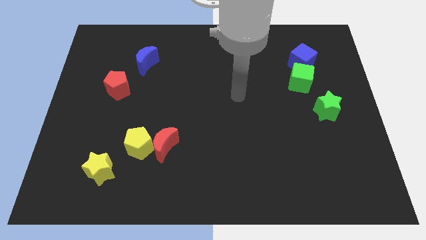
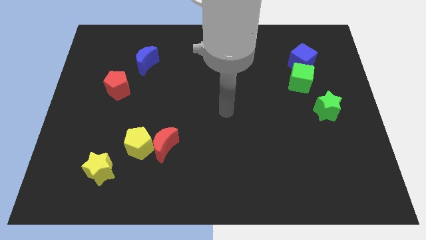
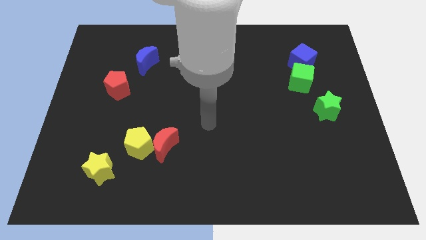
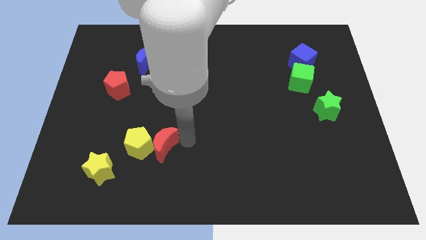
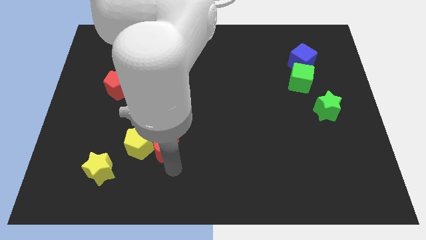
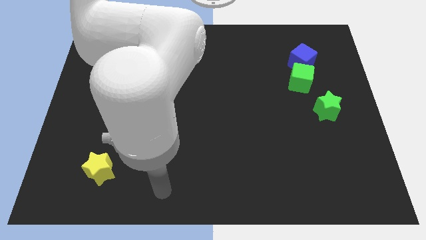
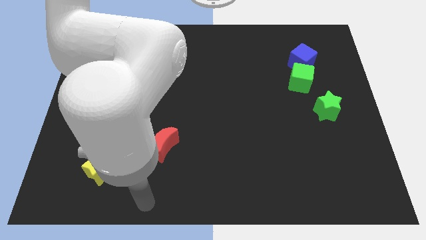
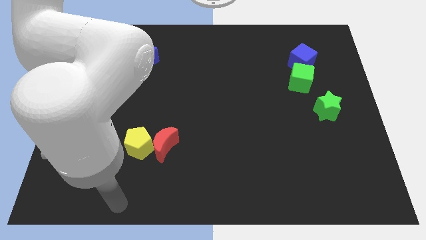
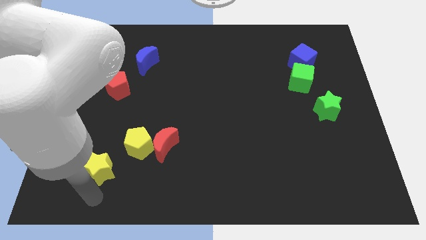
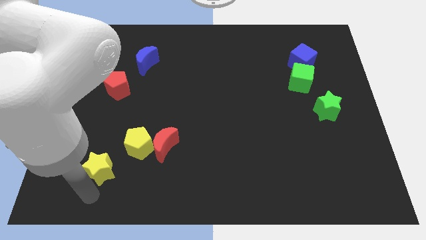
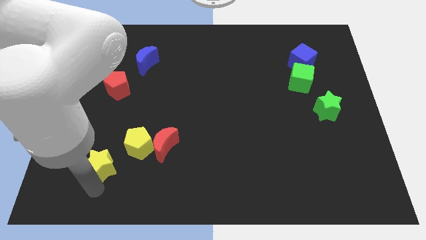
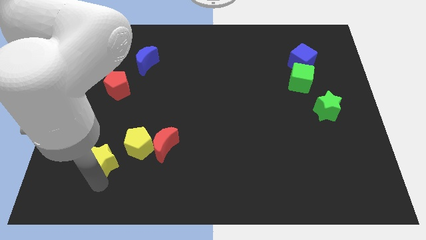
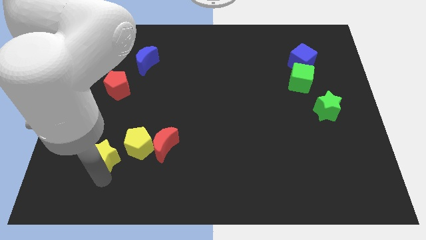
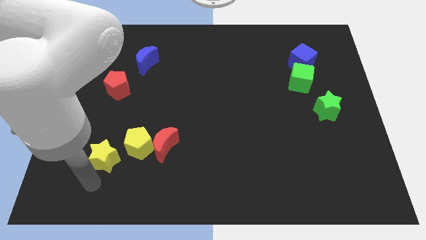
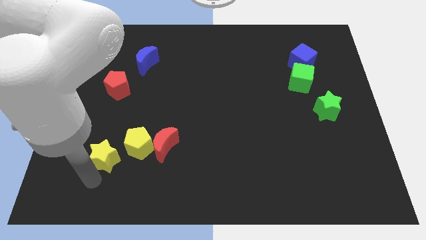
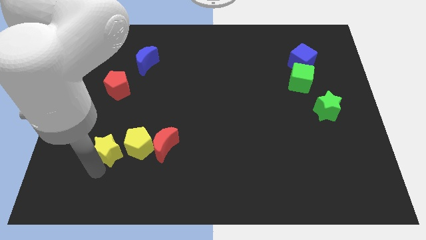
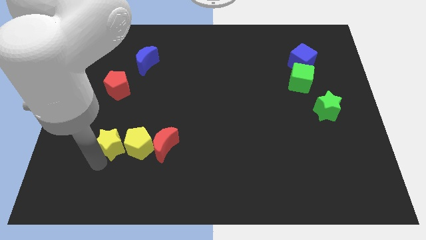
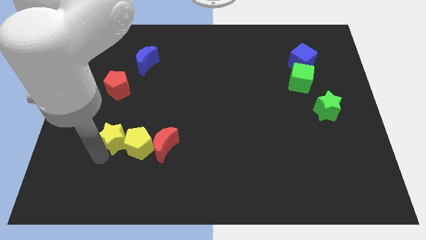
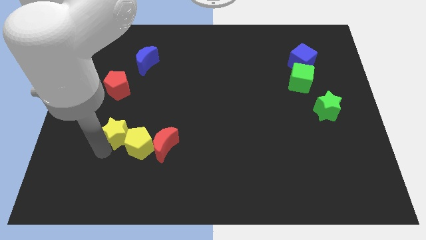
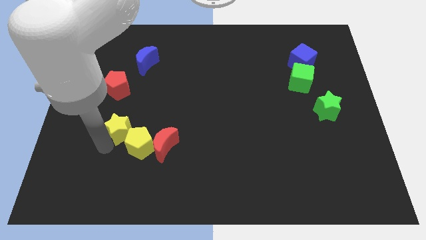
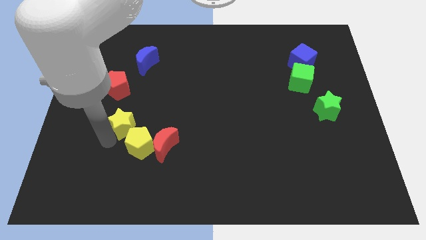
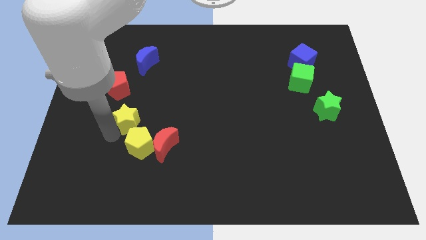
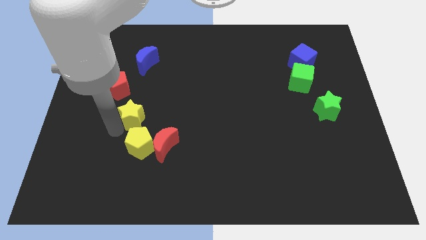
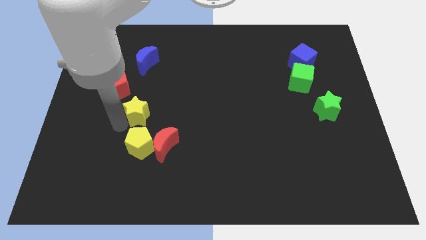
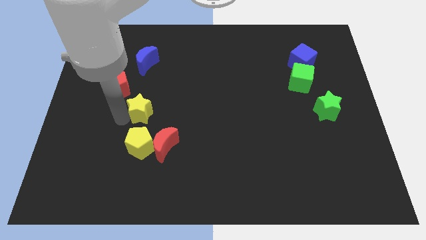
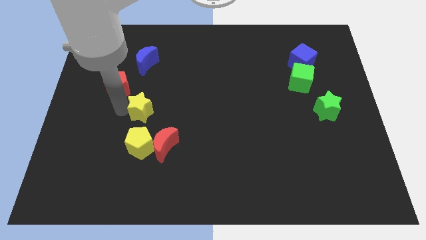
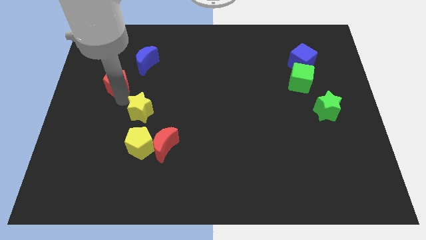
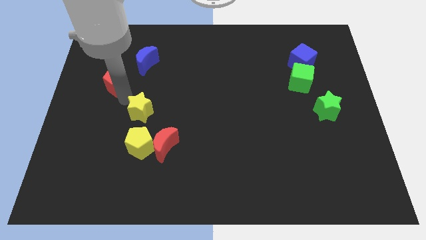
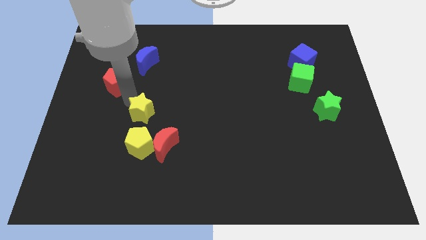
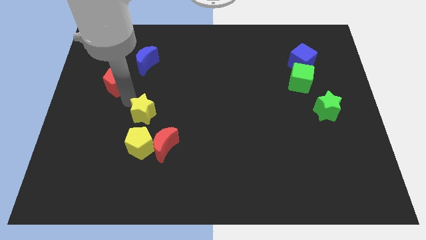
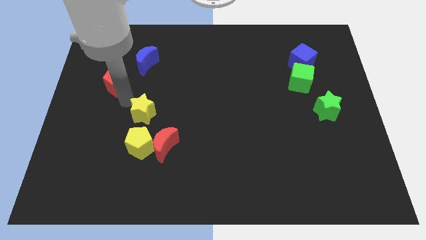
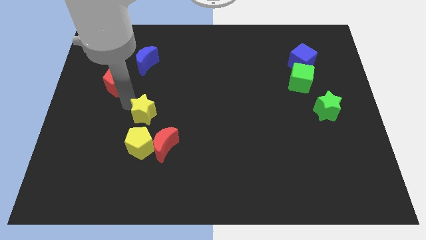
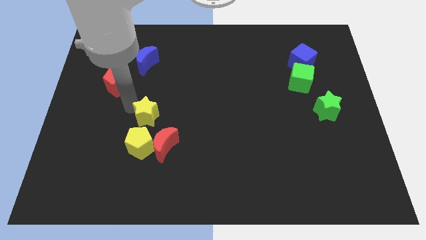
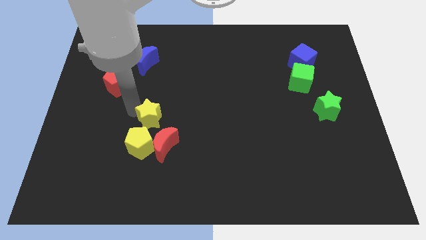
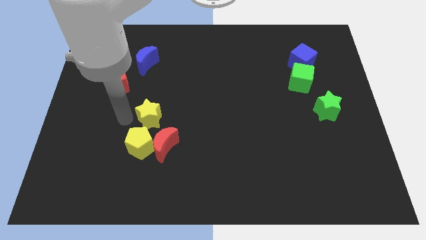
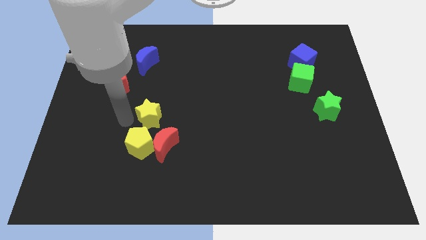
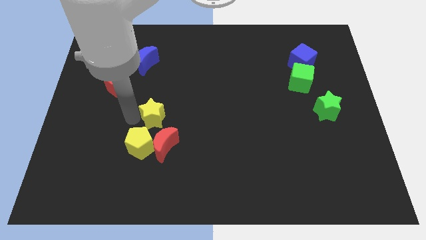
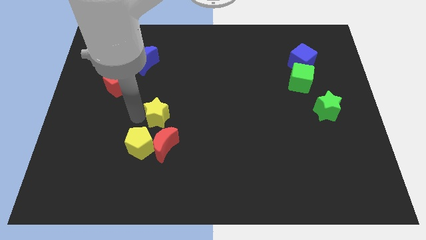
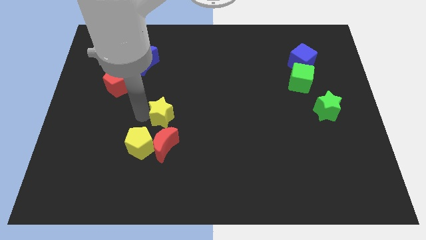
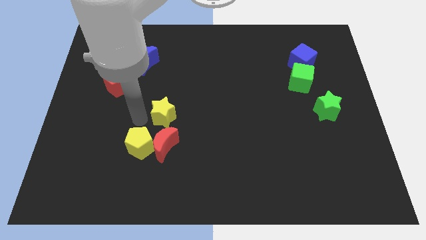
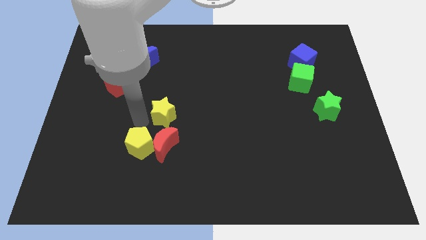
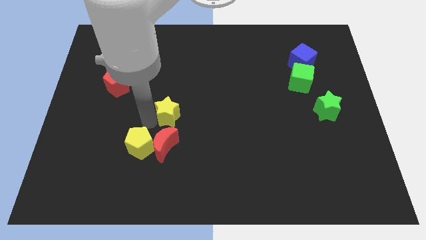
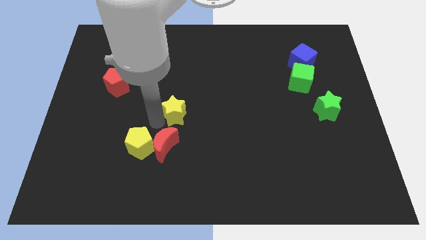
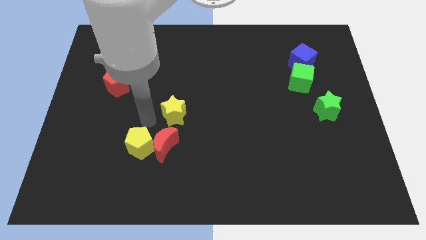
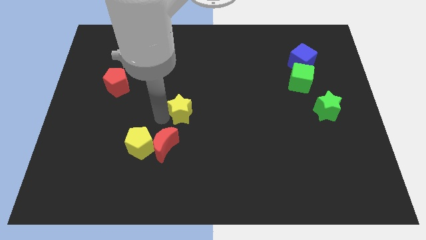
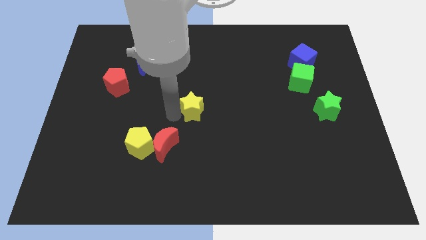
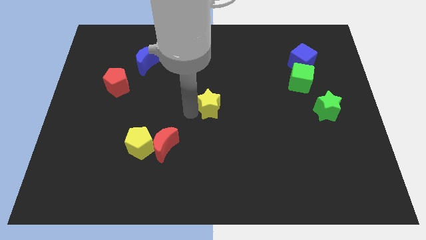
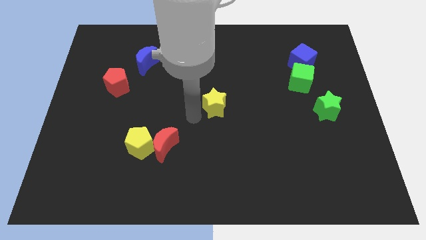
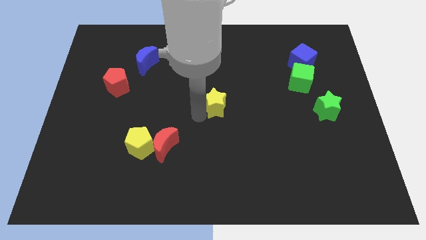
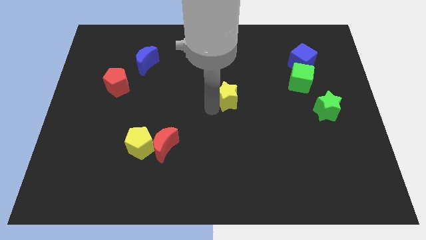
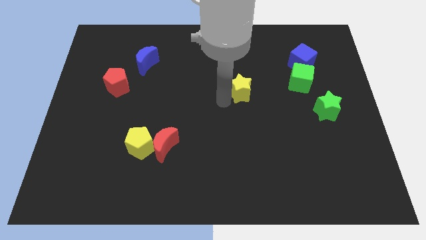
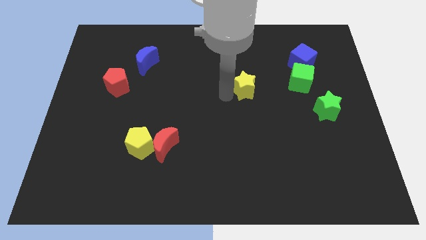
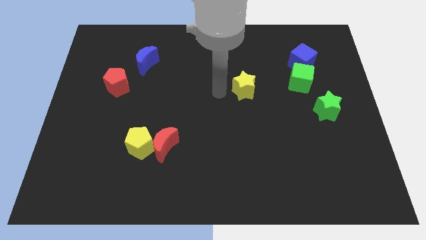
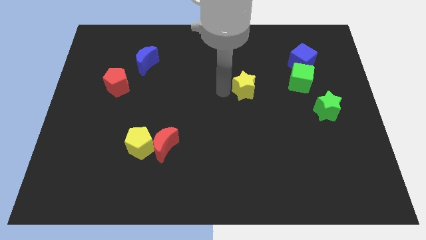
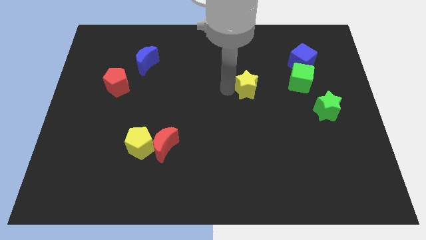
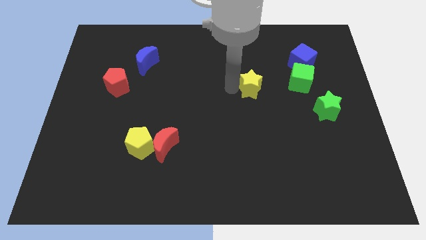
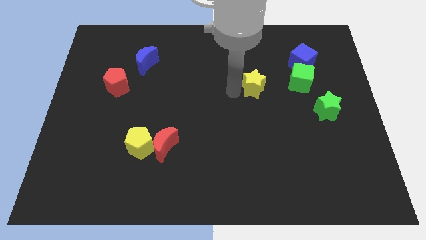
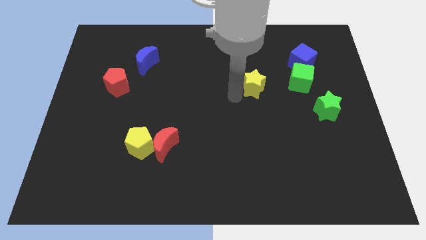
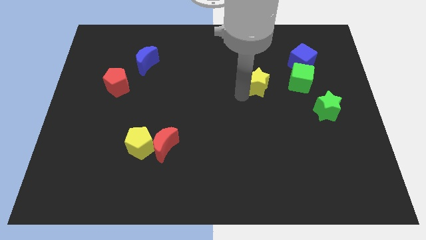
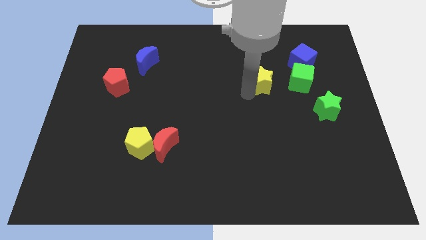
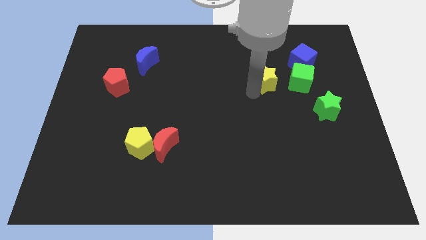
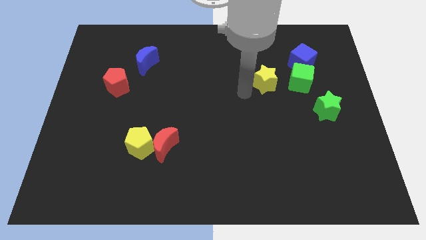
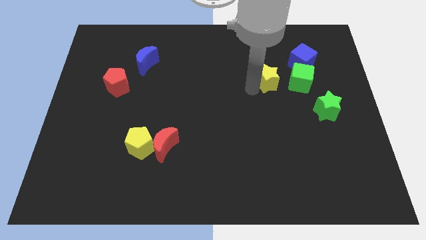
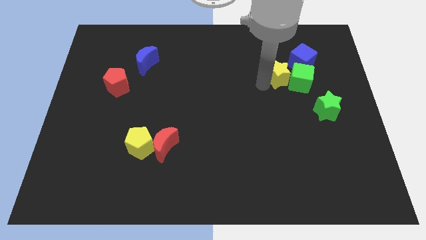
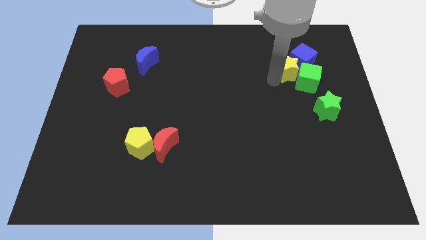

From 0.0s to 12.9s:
push the yellow star next to the blue cube

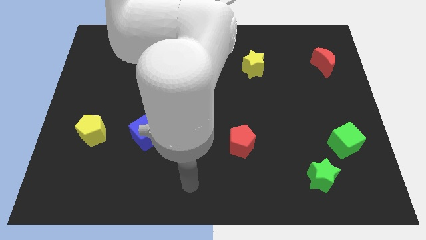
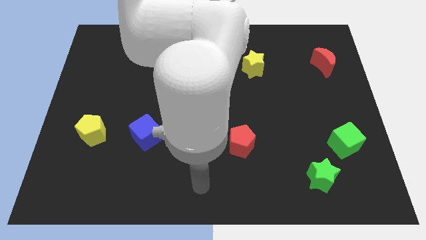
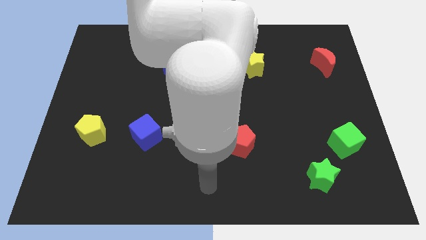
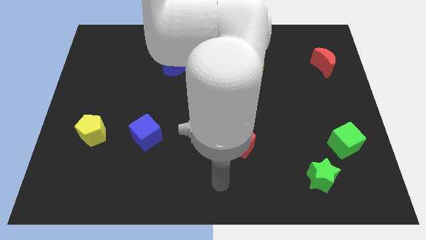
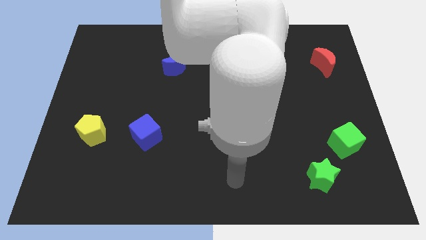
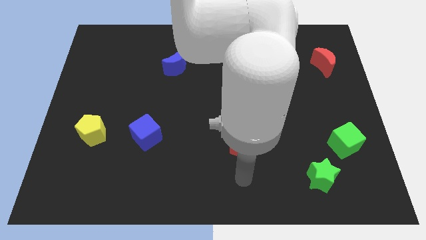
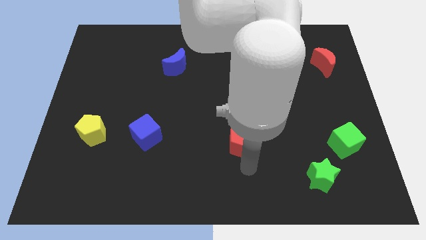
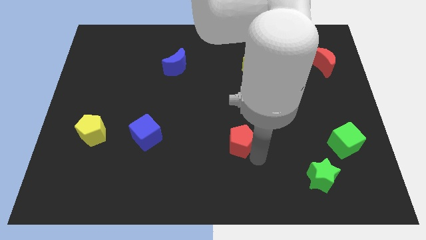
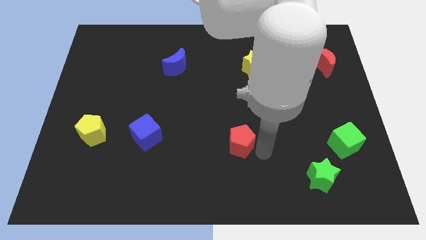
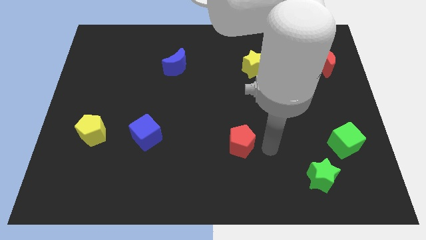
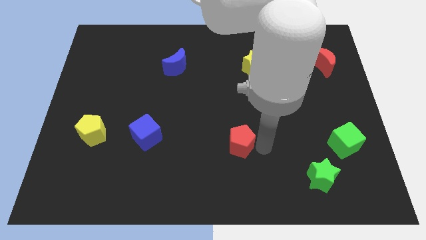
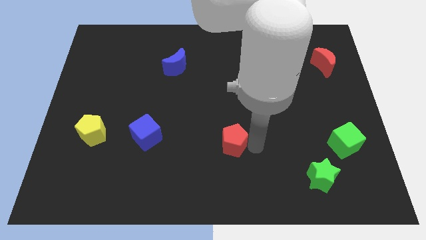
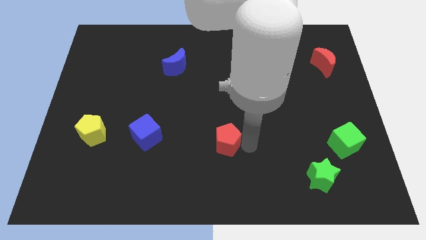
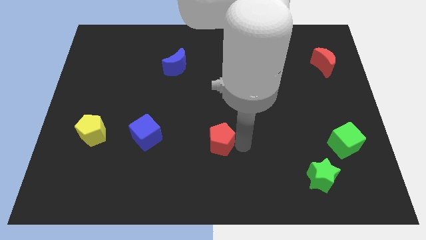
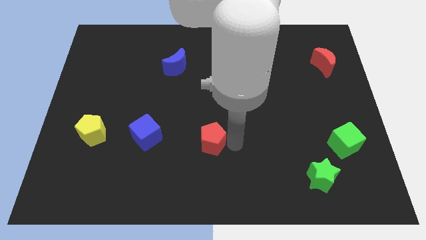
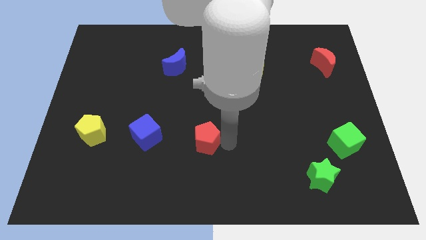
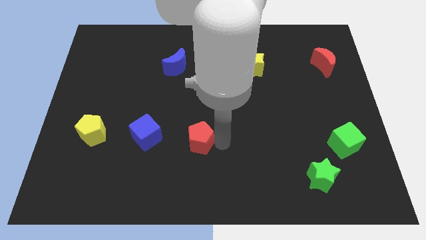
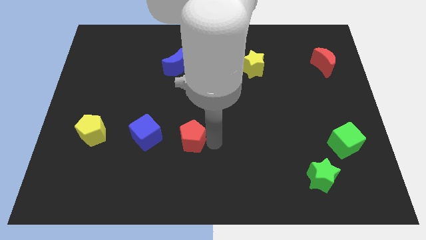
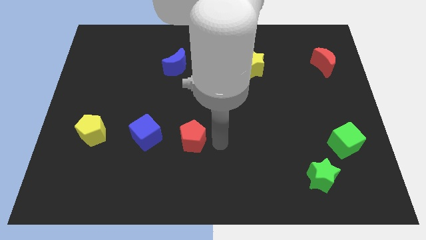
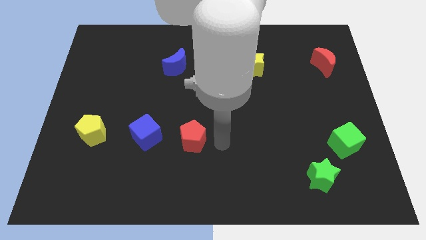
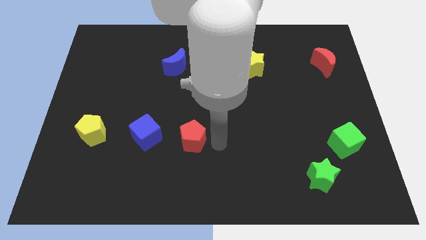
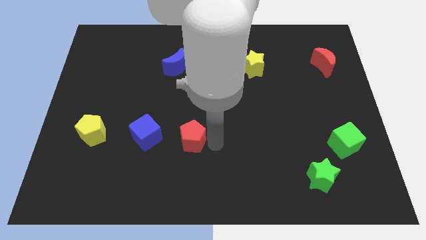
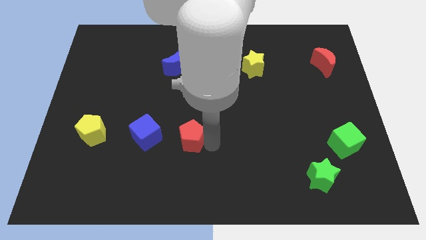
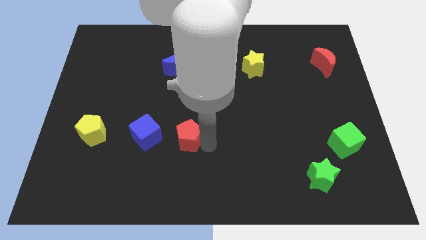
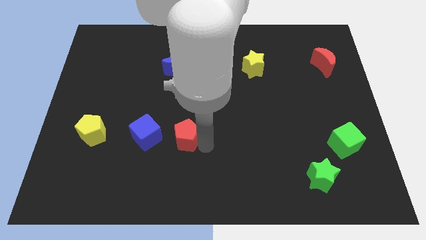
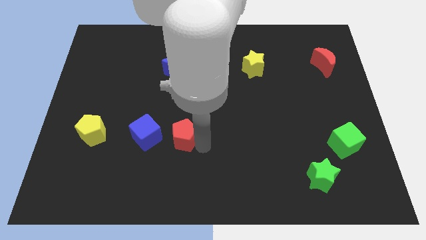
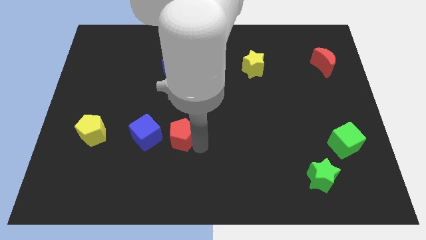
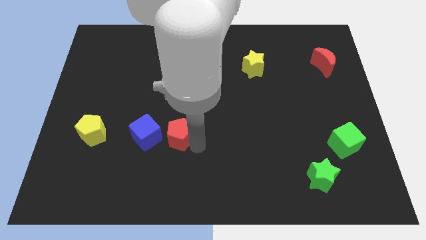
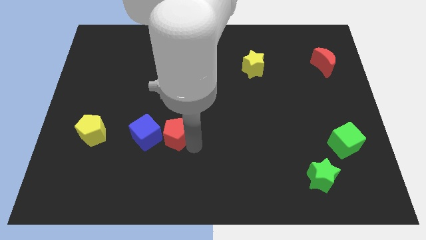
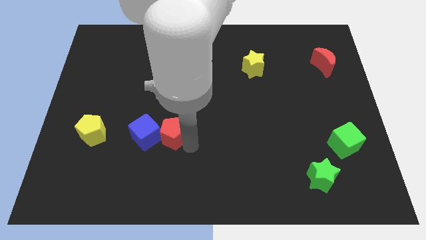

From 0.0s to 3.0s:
move the red pentagon towards the blue cube
